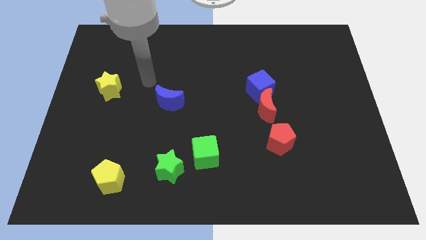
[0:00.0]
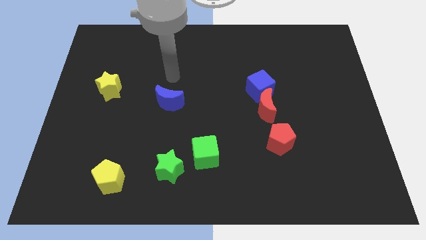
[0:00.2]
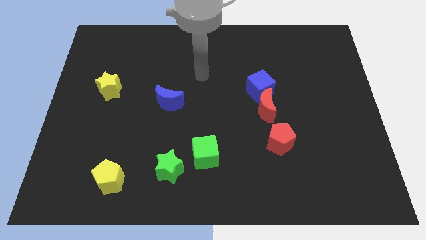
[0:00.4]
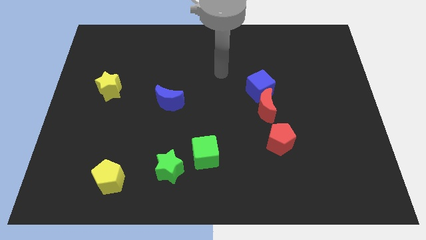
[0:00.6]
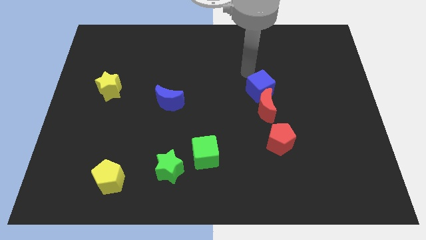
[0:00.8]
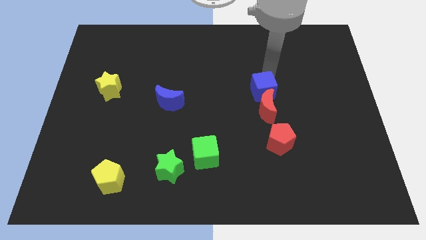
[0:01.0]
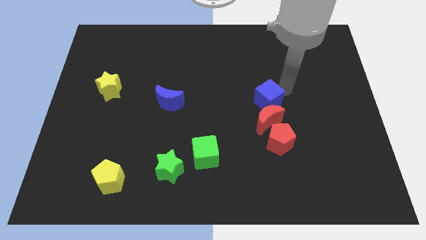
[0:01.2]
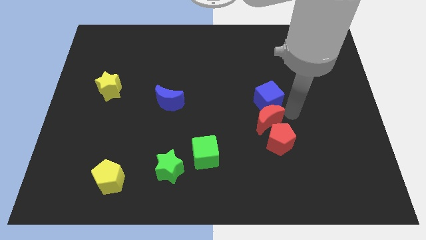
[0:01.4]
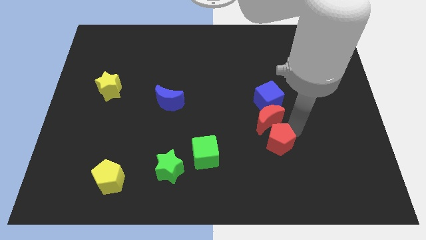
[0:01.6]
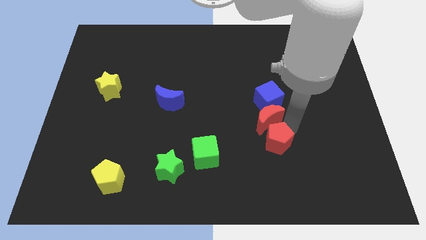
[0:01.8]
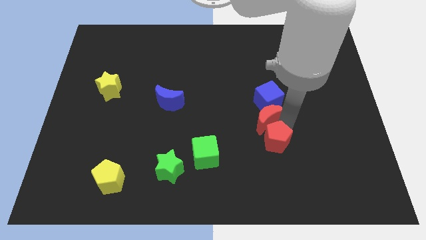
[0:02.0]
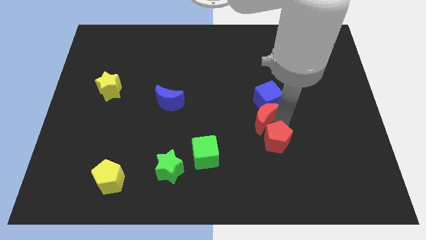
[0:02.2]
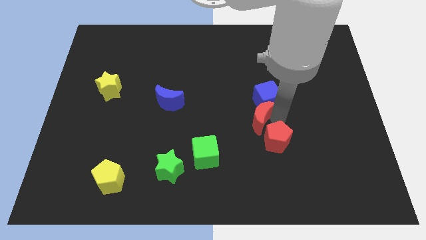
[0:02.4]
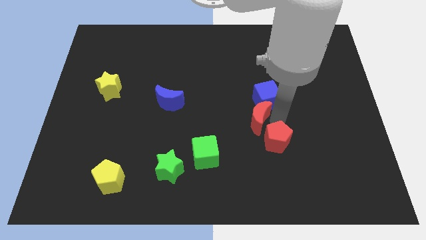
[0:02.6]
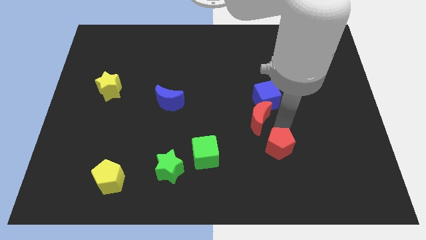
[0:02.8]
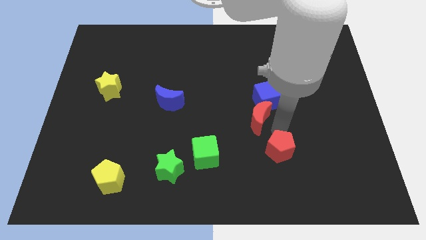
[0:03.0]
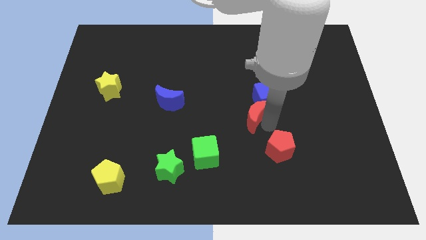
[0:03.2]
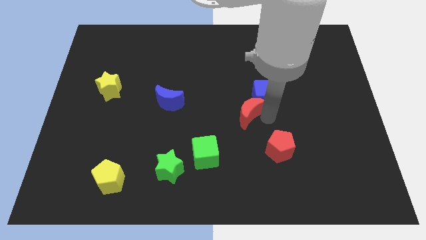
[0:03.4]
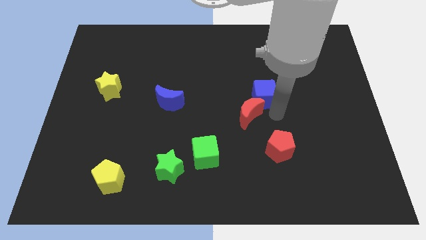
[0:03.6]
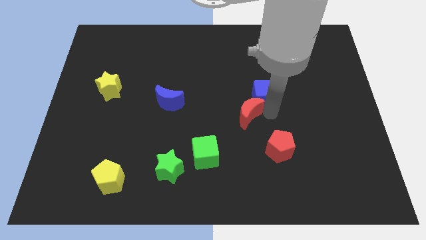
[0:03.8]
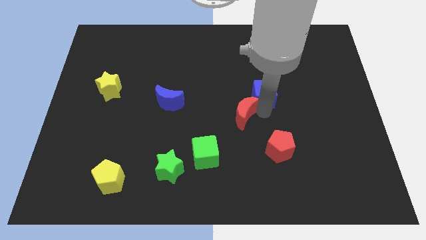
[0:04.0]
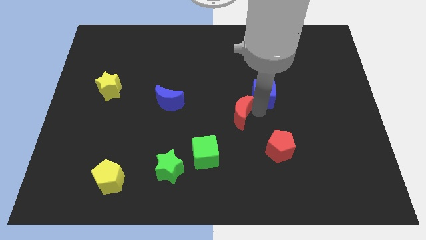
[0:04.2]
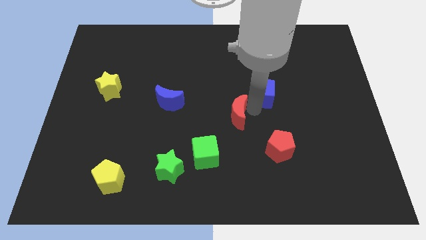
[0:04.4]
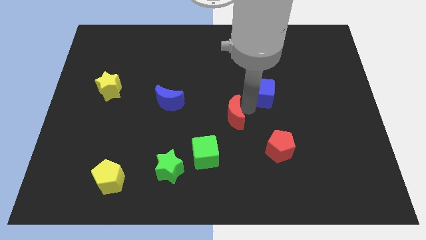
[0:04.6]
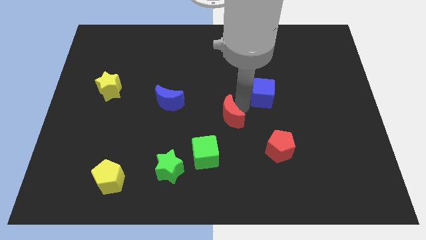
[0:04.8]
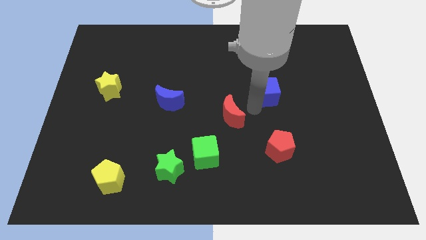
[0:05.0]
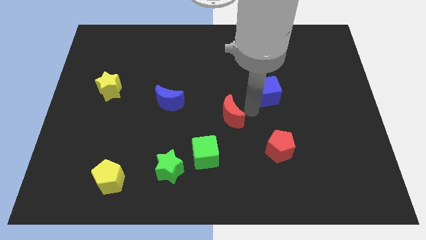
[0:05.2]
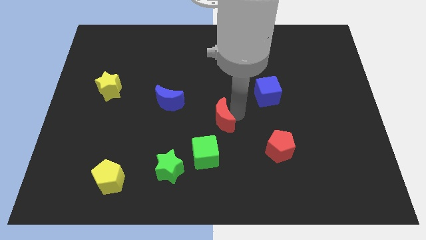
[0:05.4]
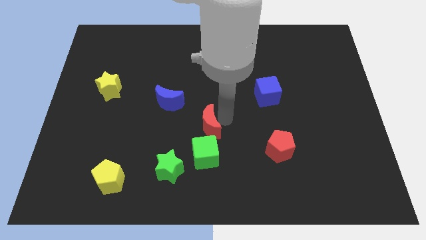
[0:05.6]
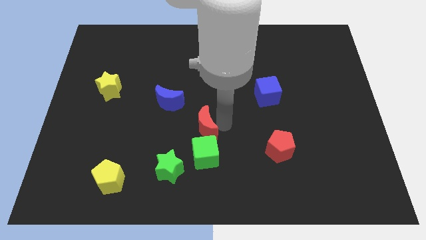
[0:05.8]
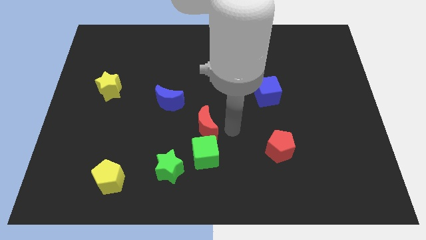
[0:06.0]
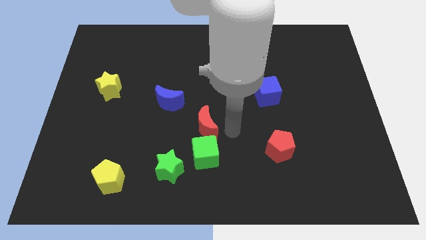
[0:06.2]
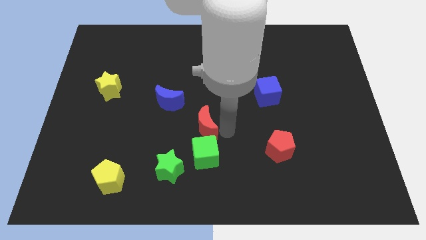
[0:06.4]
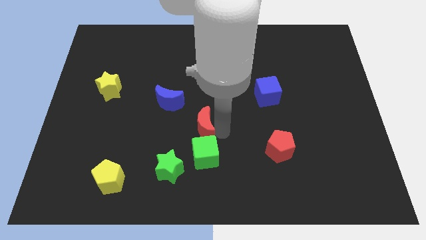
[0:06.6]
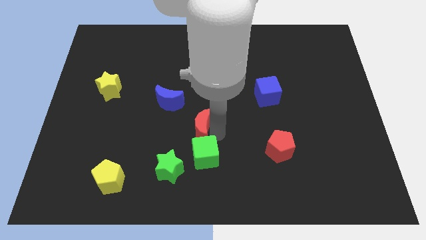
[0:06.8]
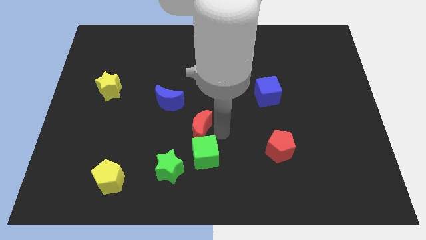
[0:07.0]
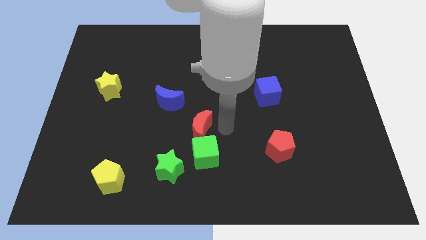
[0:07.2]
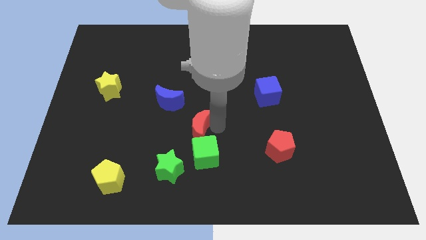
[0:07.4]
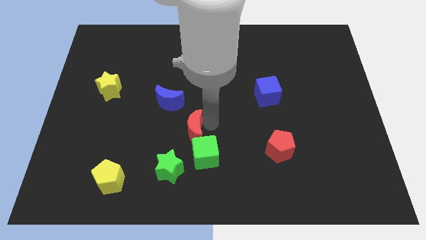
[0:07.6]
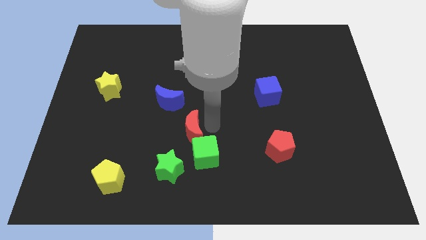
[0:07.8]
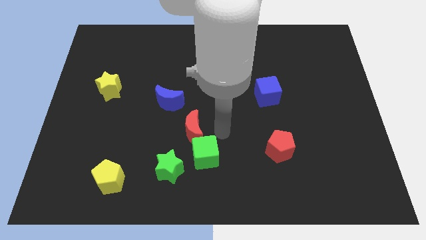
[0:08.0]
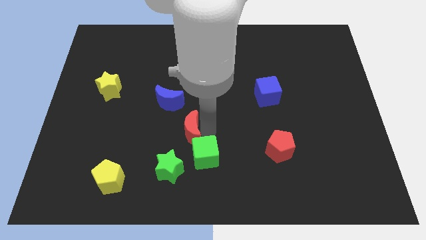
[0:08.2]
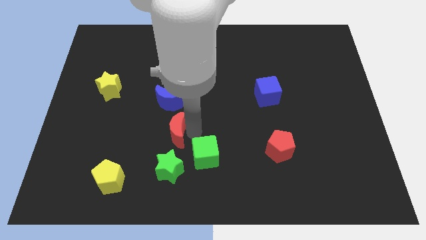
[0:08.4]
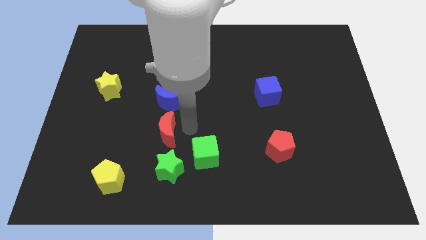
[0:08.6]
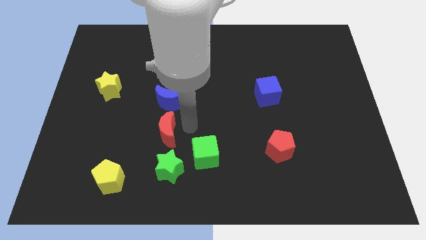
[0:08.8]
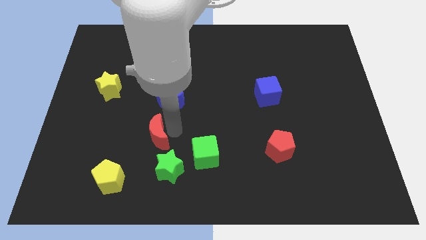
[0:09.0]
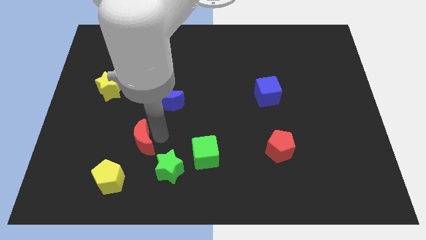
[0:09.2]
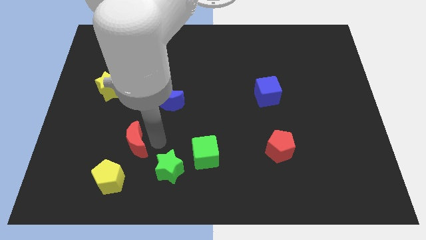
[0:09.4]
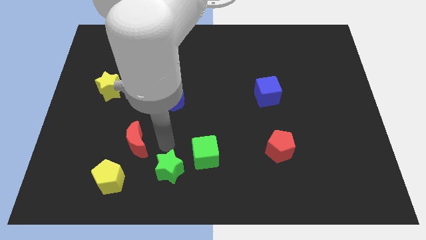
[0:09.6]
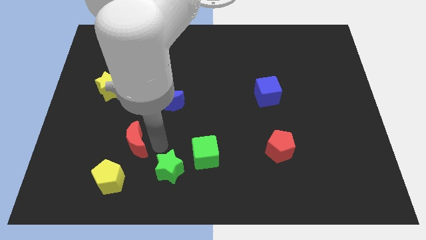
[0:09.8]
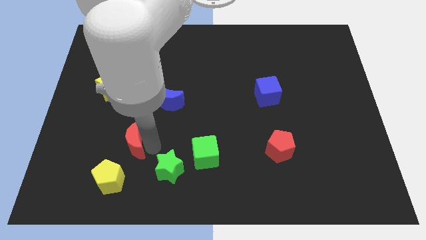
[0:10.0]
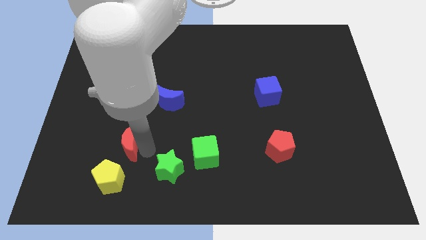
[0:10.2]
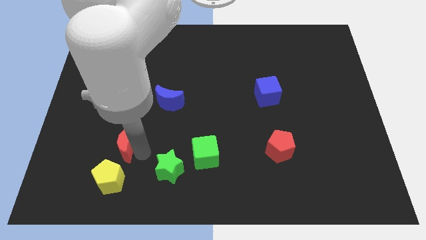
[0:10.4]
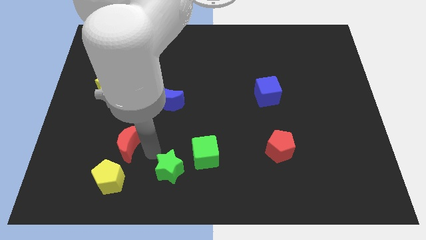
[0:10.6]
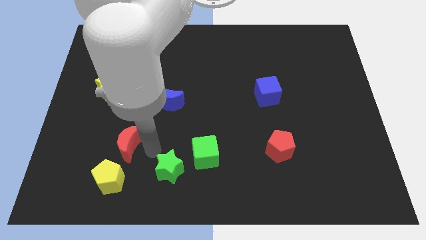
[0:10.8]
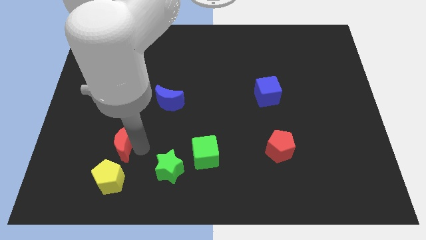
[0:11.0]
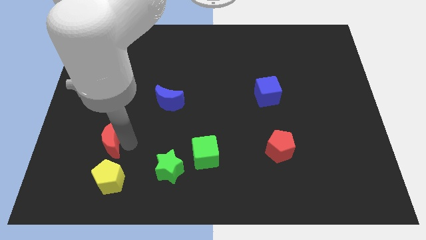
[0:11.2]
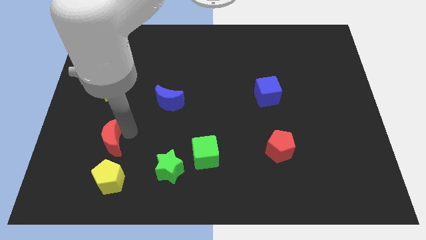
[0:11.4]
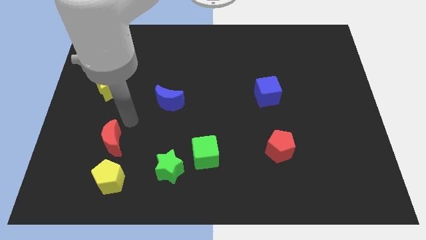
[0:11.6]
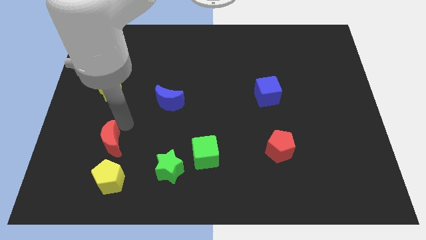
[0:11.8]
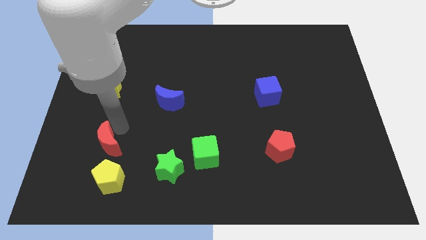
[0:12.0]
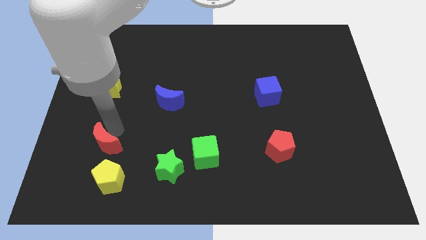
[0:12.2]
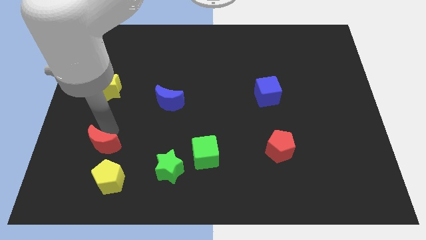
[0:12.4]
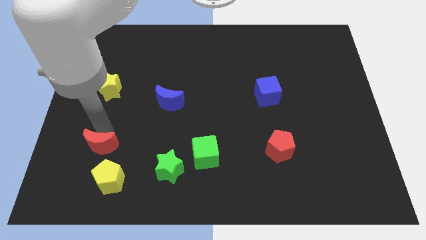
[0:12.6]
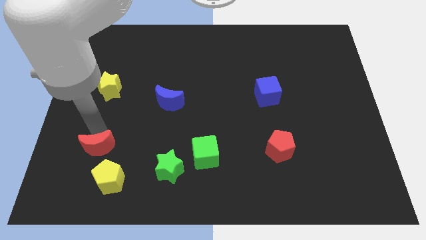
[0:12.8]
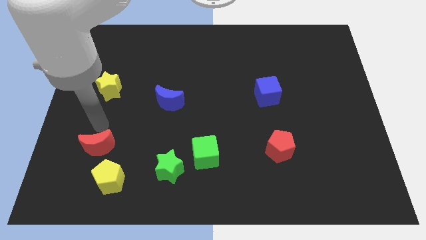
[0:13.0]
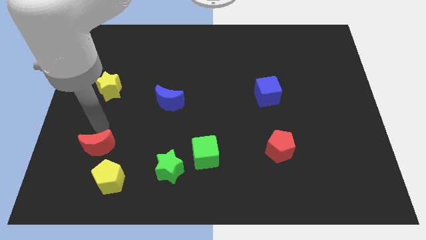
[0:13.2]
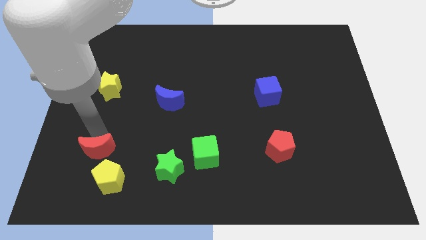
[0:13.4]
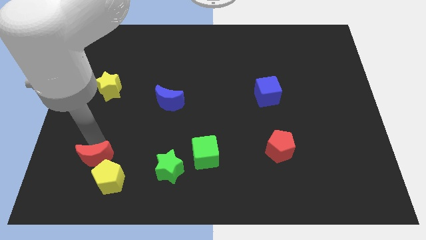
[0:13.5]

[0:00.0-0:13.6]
slide the red moon to the left of the green star

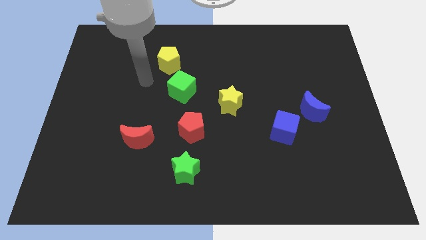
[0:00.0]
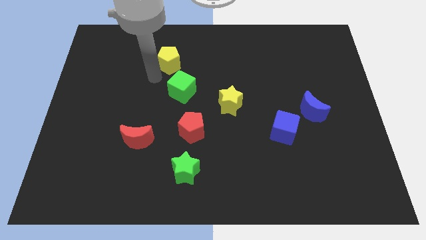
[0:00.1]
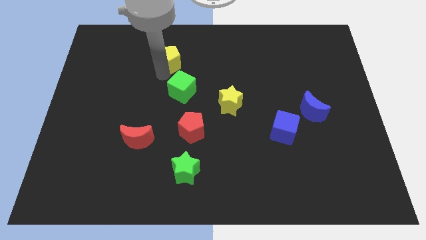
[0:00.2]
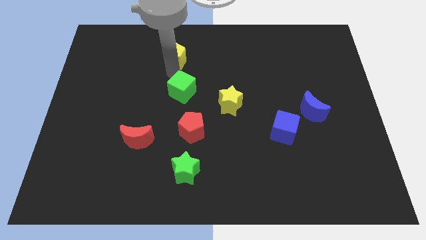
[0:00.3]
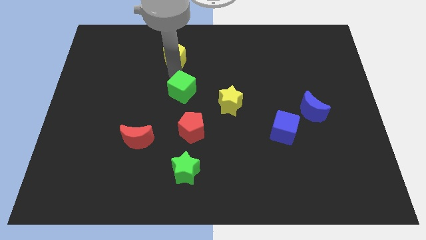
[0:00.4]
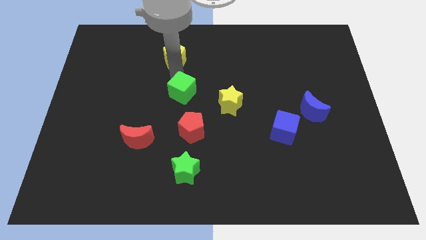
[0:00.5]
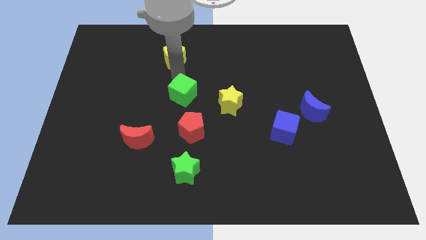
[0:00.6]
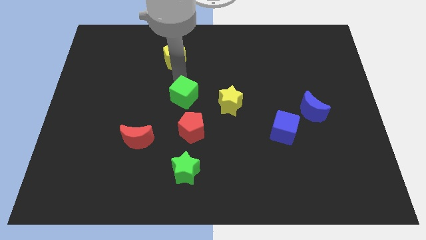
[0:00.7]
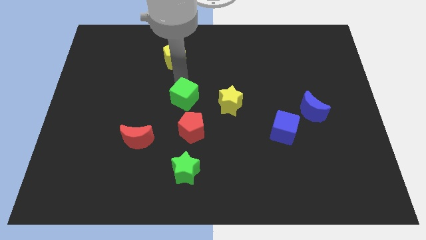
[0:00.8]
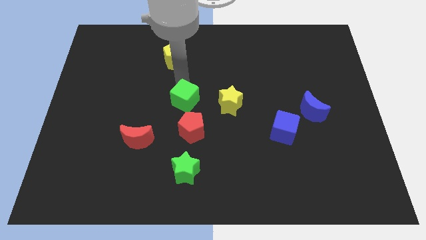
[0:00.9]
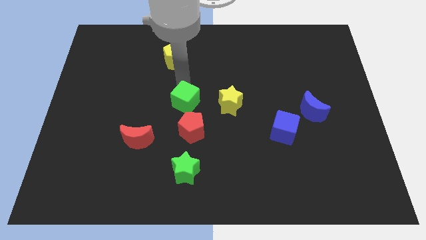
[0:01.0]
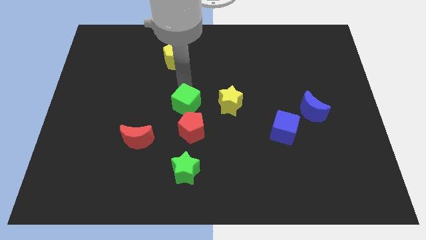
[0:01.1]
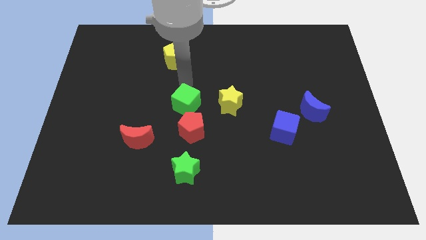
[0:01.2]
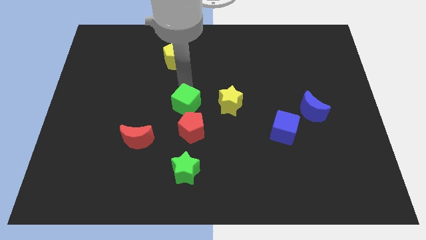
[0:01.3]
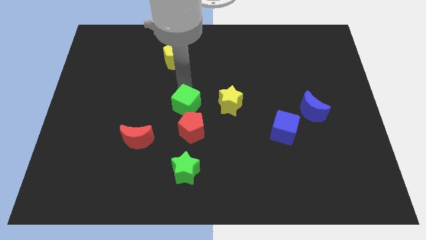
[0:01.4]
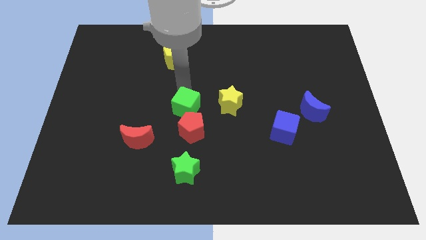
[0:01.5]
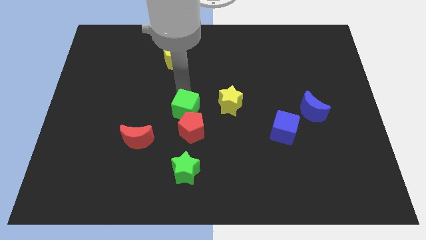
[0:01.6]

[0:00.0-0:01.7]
push the green cube above the green star
